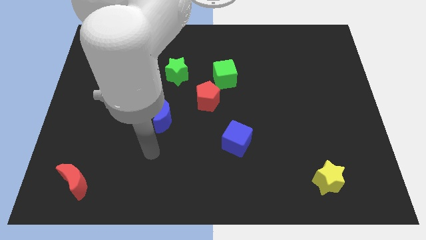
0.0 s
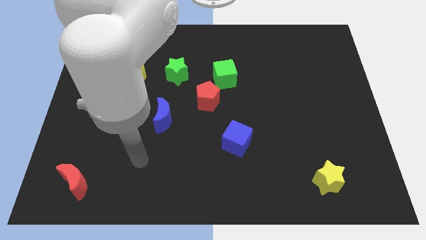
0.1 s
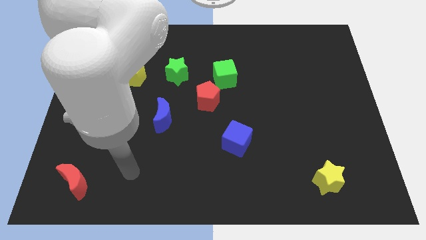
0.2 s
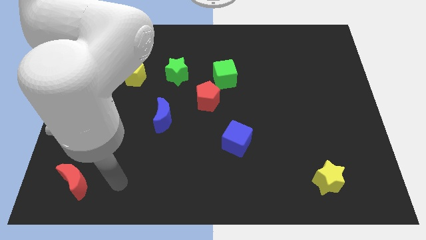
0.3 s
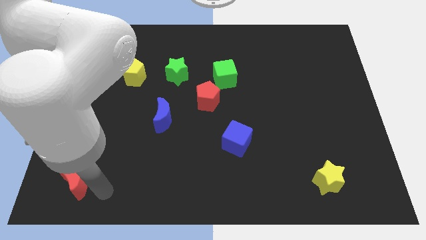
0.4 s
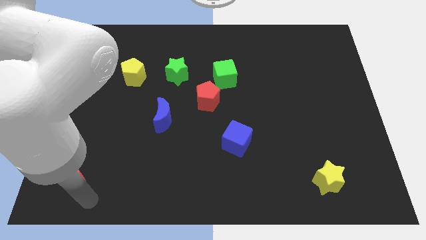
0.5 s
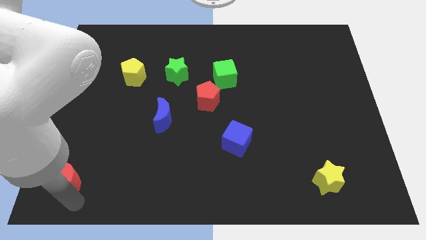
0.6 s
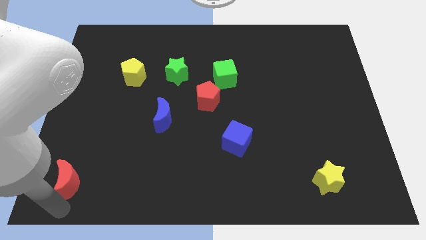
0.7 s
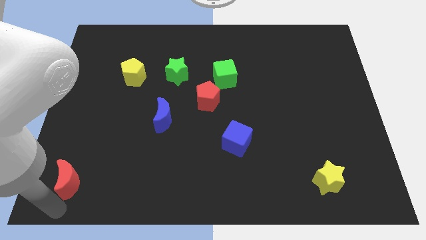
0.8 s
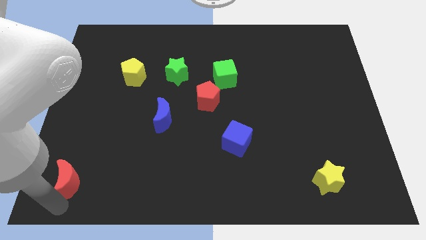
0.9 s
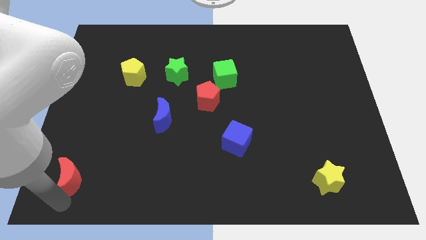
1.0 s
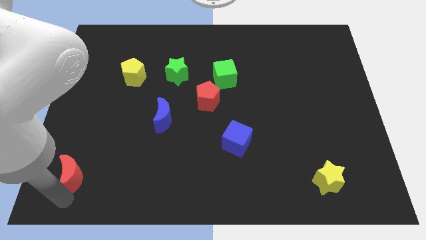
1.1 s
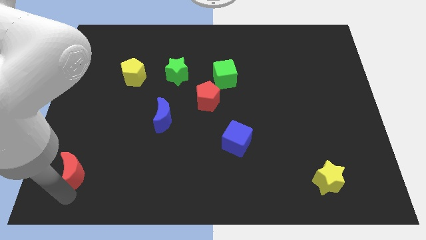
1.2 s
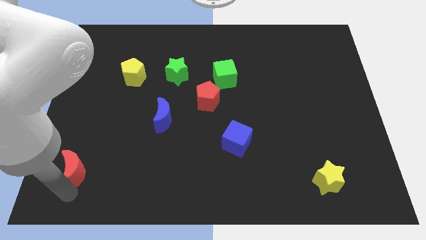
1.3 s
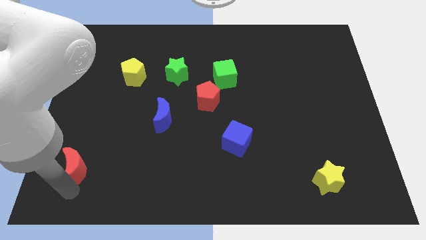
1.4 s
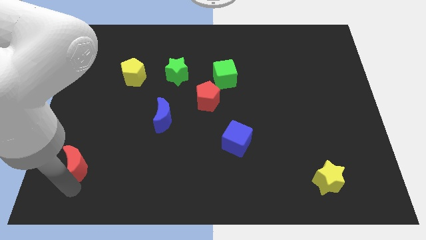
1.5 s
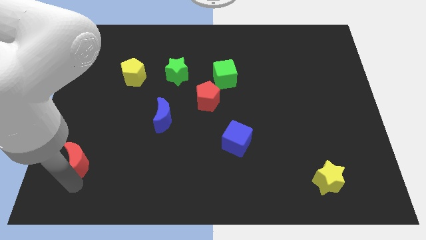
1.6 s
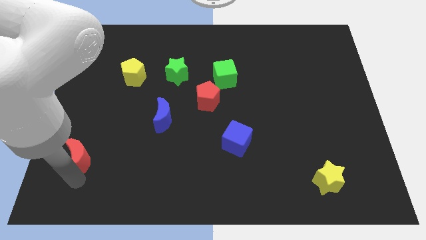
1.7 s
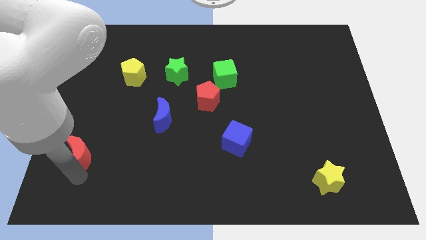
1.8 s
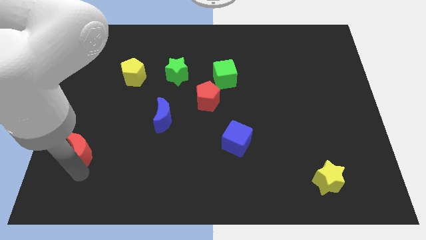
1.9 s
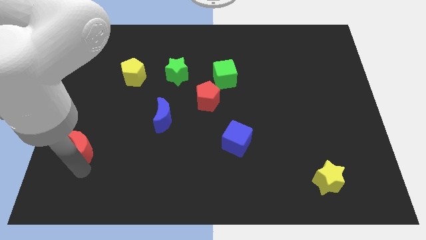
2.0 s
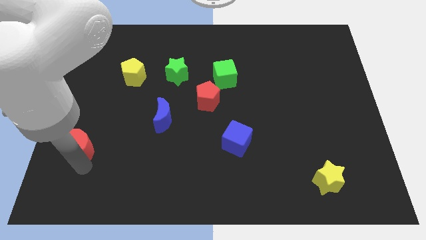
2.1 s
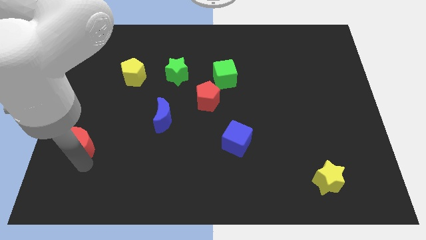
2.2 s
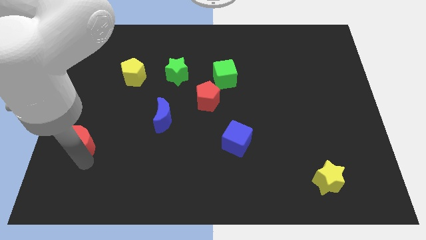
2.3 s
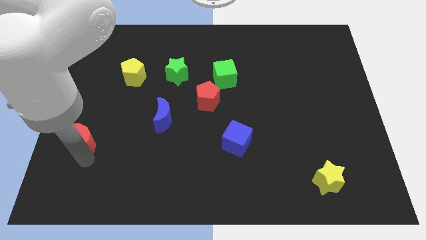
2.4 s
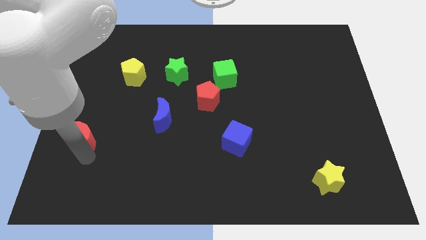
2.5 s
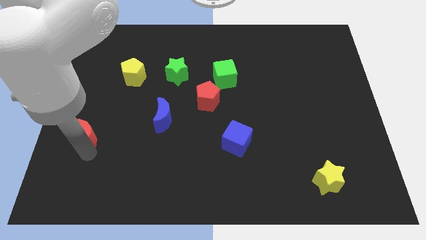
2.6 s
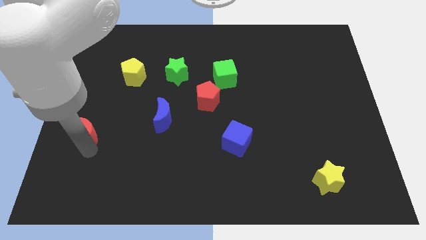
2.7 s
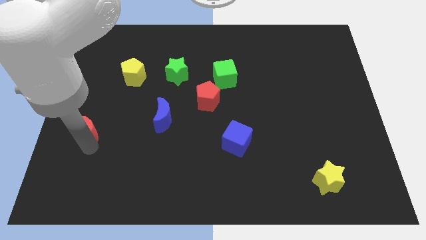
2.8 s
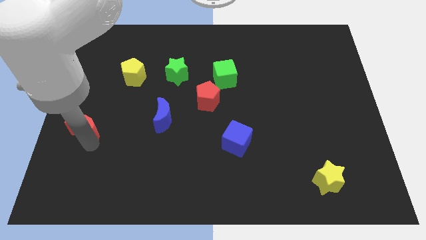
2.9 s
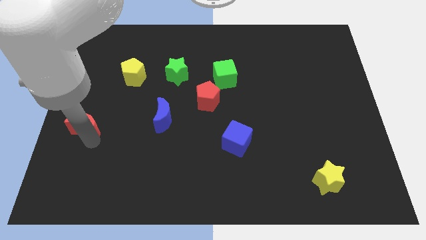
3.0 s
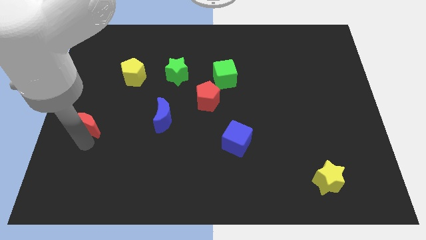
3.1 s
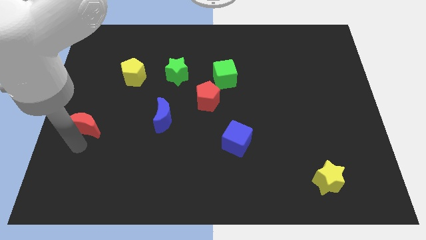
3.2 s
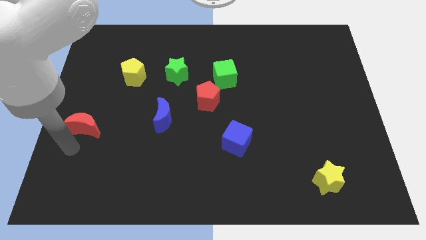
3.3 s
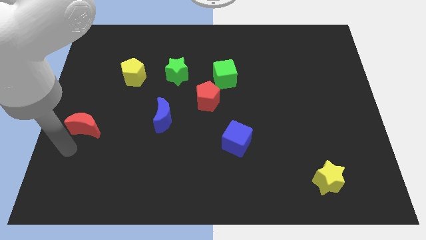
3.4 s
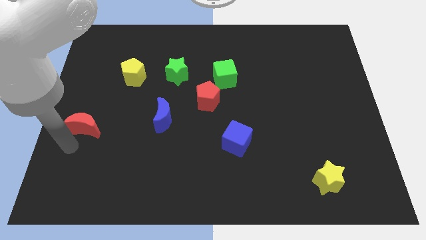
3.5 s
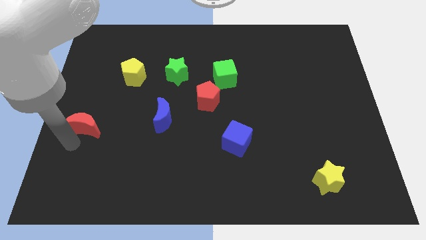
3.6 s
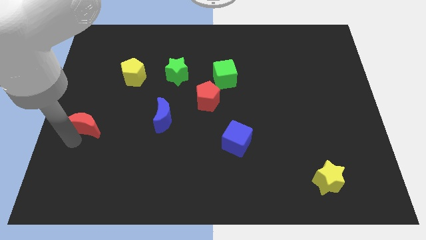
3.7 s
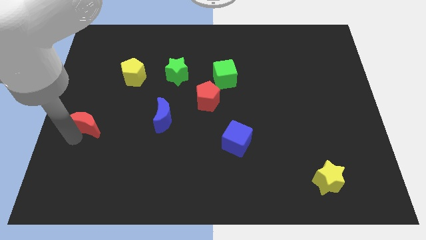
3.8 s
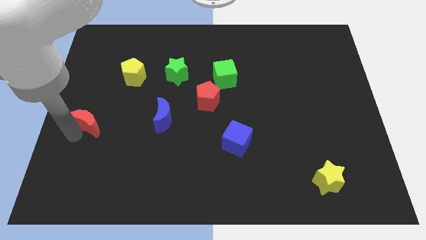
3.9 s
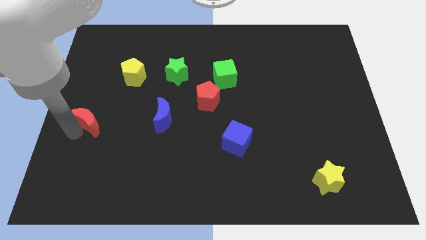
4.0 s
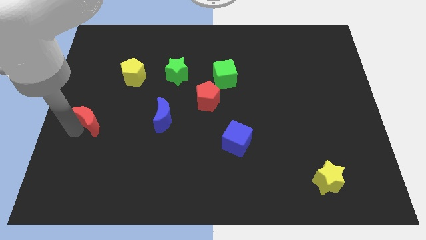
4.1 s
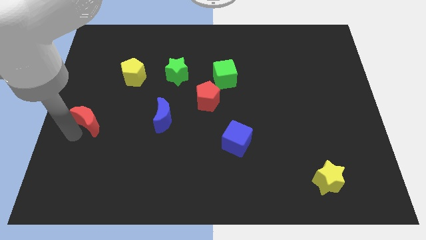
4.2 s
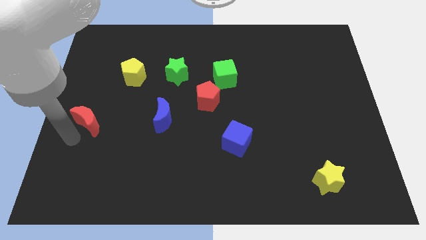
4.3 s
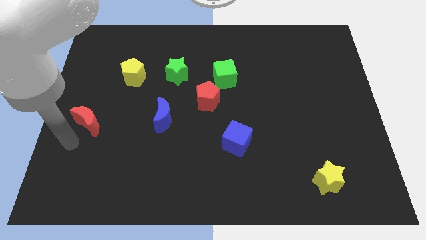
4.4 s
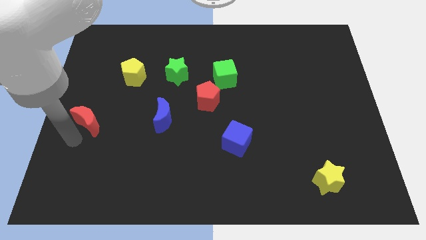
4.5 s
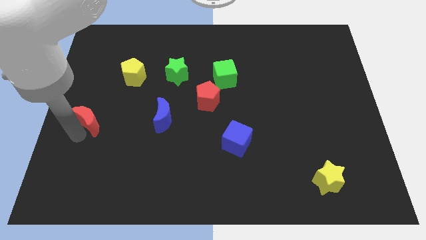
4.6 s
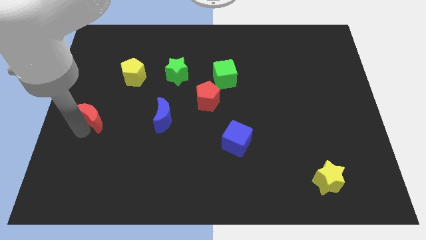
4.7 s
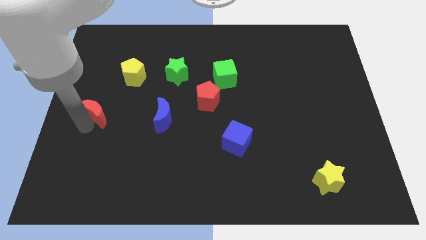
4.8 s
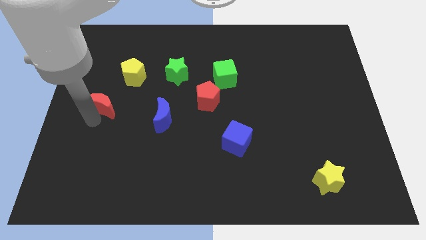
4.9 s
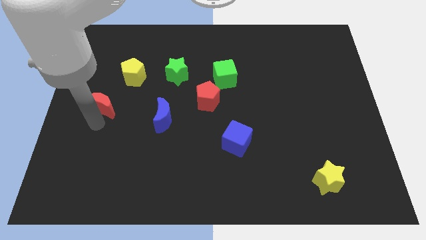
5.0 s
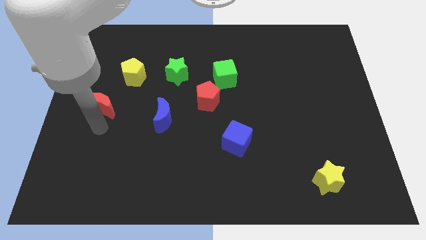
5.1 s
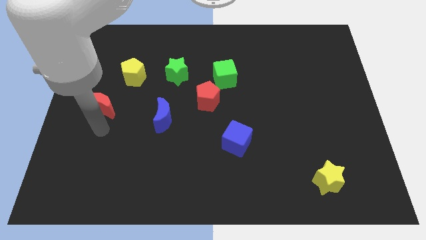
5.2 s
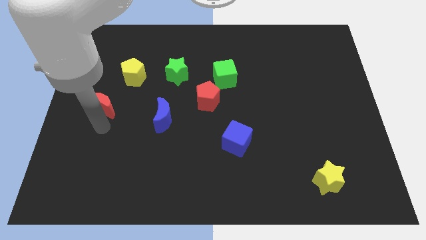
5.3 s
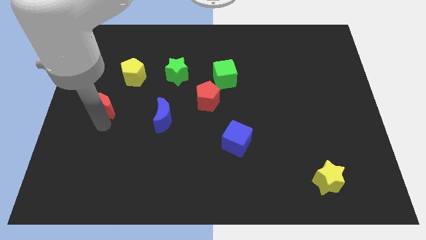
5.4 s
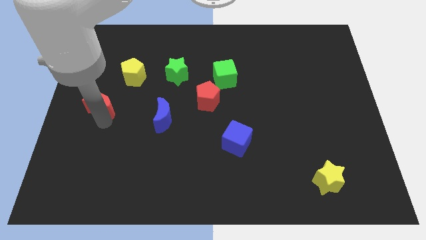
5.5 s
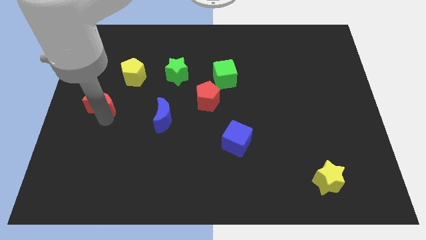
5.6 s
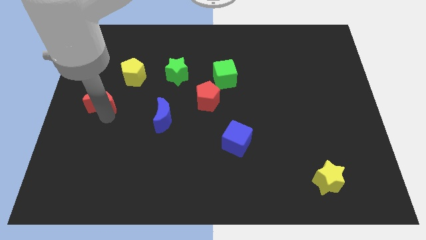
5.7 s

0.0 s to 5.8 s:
push the red moon up

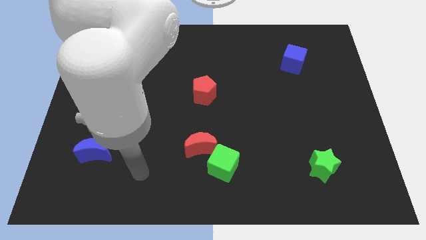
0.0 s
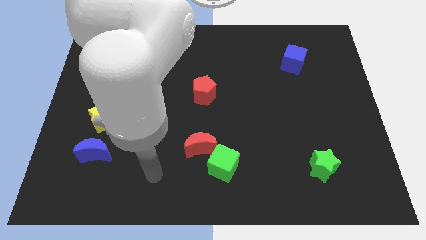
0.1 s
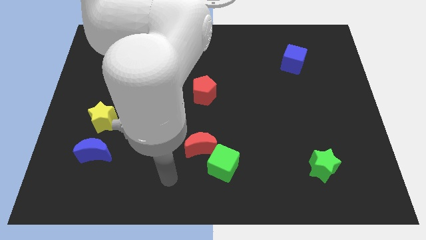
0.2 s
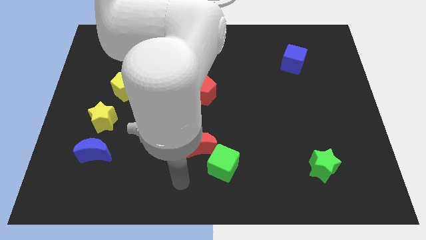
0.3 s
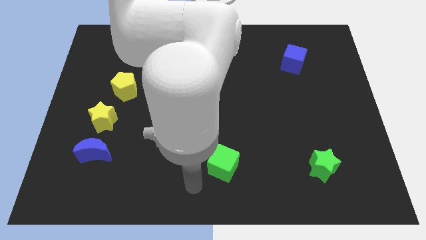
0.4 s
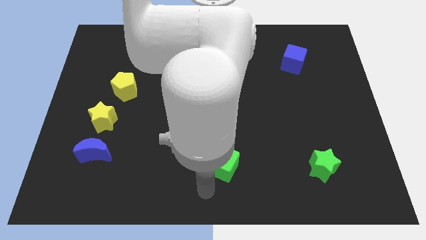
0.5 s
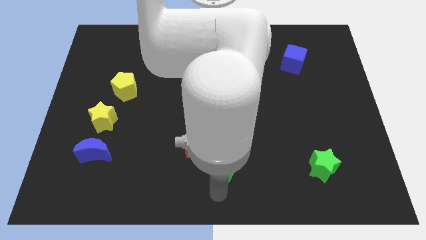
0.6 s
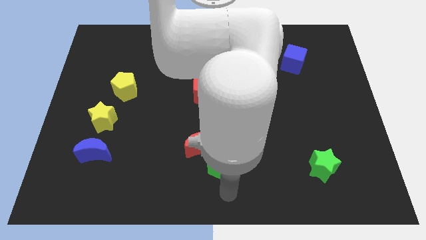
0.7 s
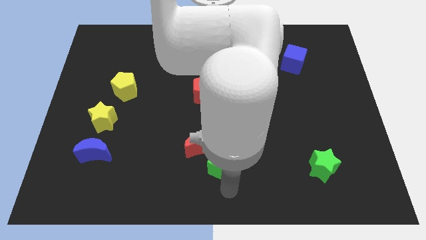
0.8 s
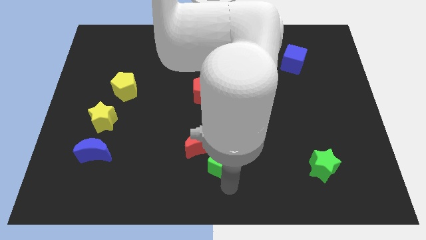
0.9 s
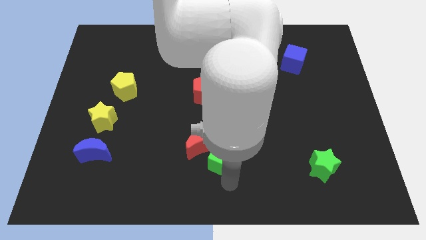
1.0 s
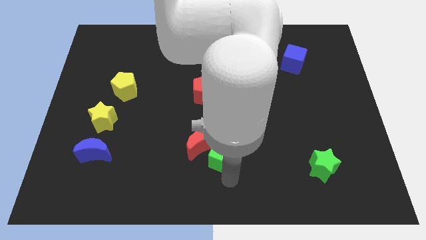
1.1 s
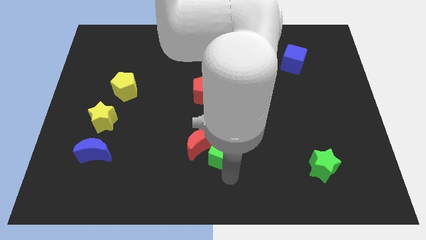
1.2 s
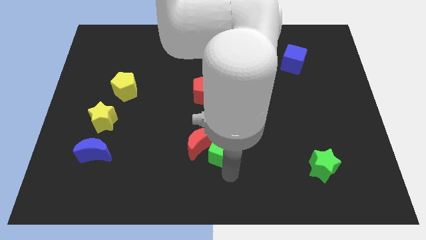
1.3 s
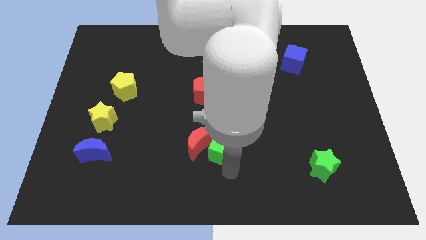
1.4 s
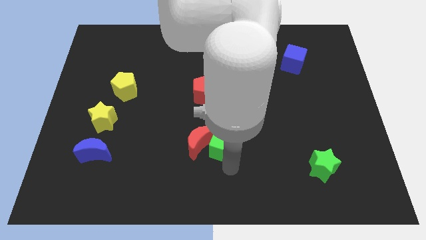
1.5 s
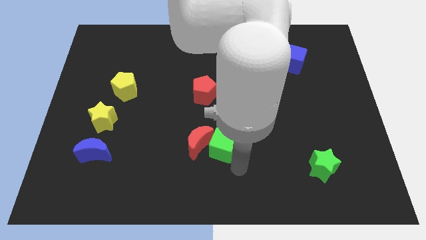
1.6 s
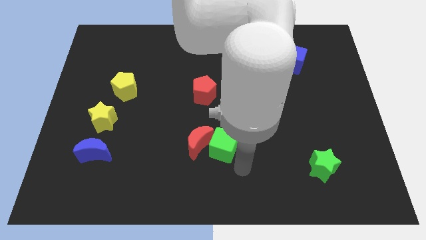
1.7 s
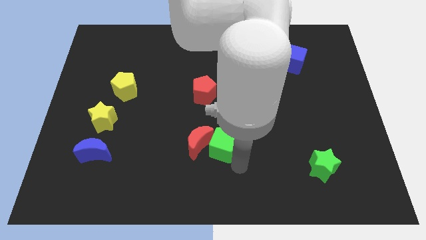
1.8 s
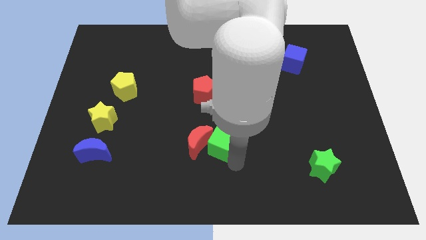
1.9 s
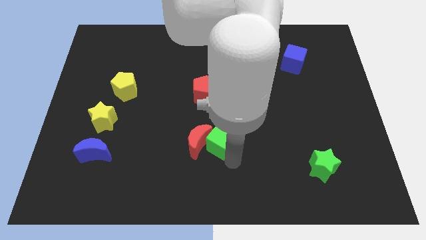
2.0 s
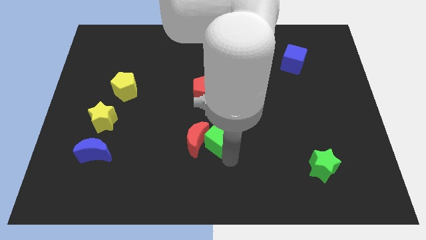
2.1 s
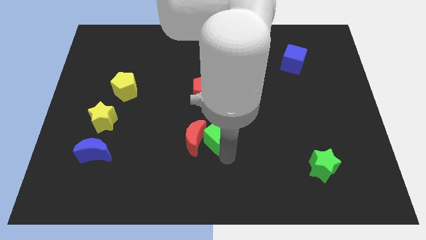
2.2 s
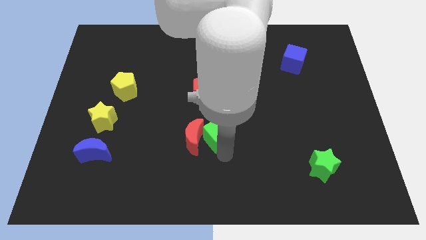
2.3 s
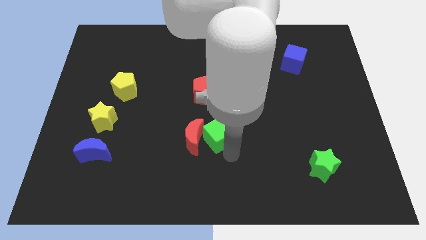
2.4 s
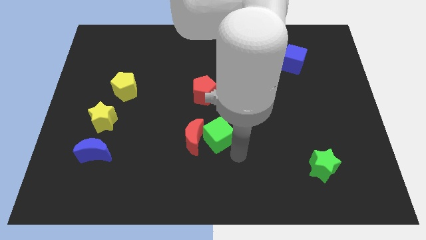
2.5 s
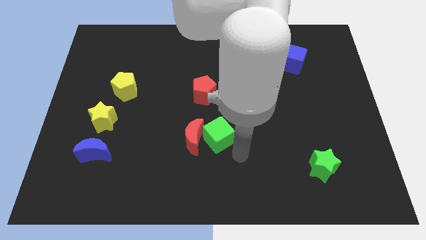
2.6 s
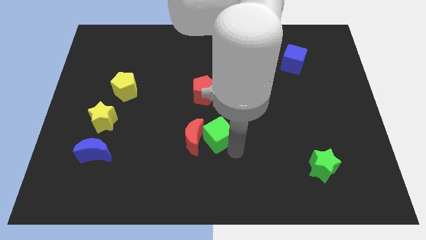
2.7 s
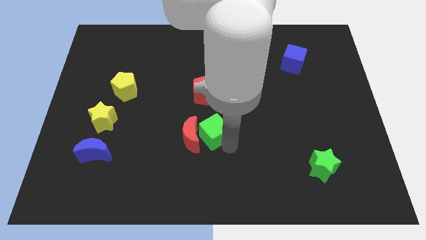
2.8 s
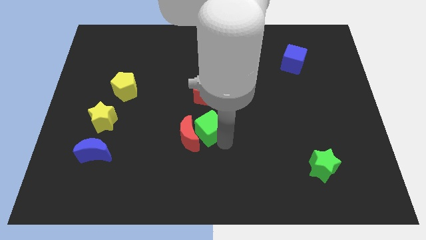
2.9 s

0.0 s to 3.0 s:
move the green cube slightly up and left diagonally
